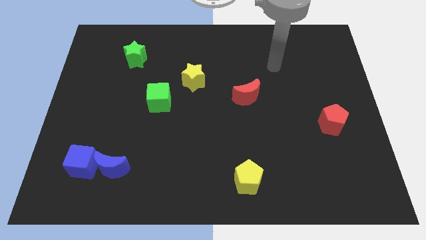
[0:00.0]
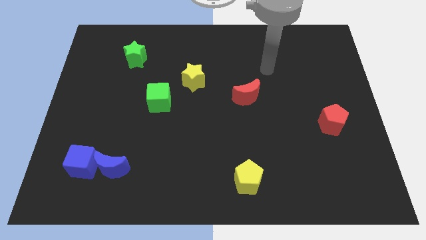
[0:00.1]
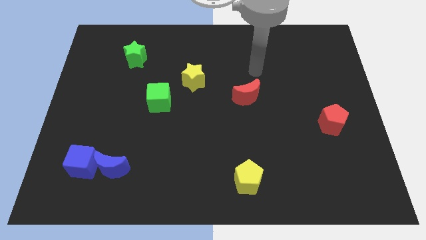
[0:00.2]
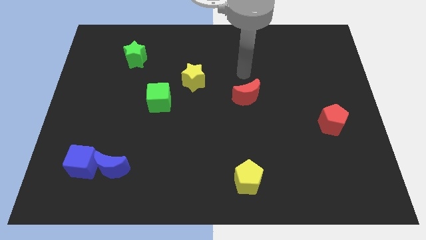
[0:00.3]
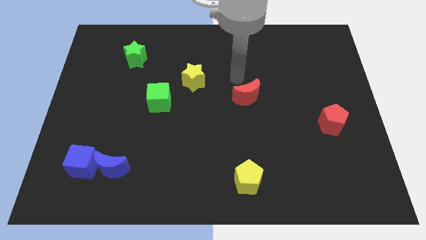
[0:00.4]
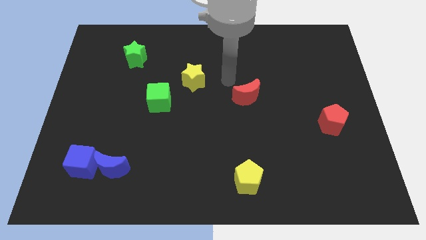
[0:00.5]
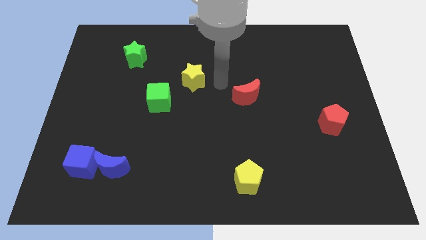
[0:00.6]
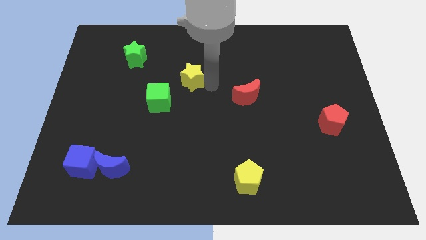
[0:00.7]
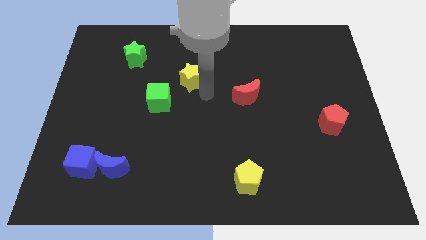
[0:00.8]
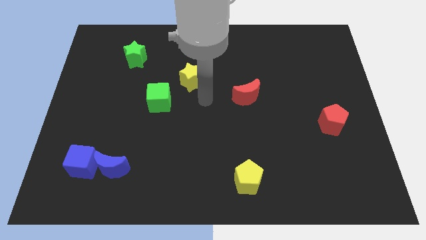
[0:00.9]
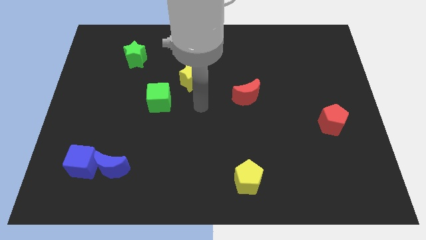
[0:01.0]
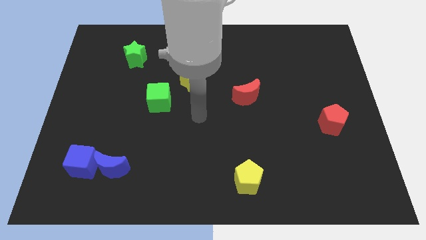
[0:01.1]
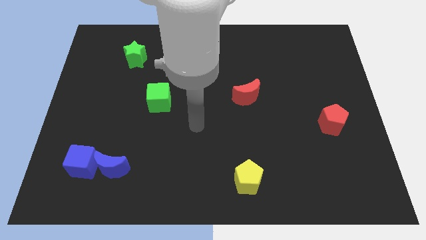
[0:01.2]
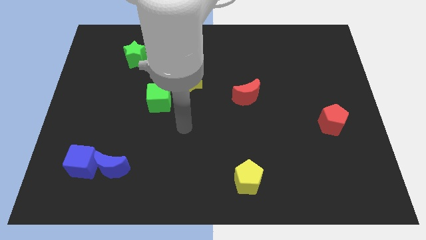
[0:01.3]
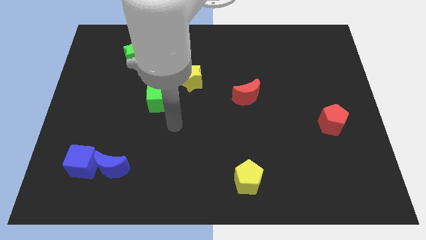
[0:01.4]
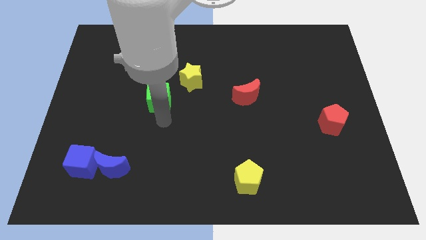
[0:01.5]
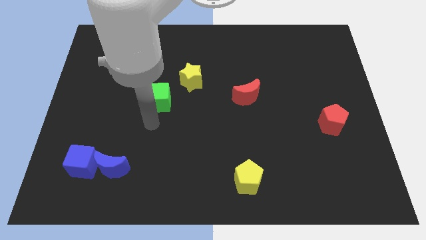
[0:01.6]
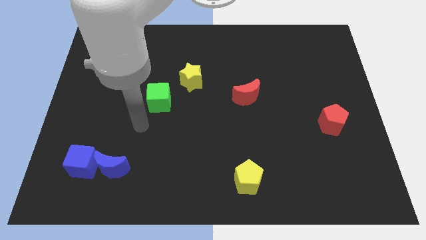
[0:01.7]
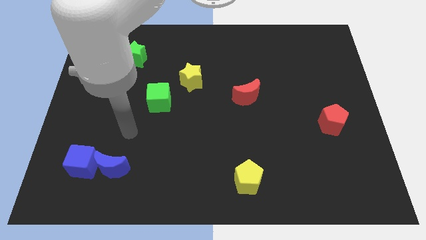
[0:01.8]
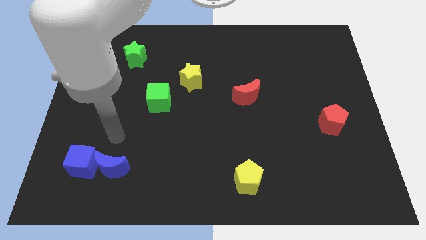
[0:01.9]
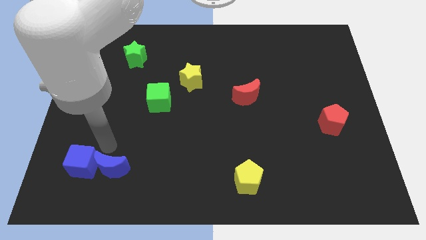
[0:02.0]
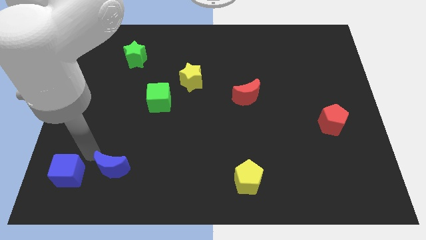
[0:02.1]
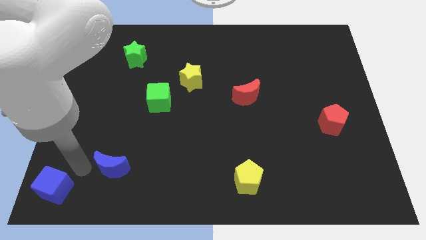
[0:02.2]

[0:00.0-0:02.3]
pull the blue moon apart from the blue cube

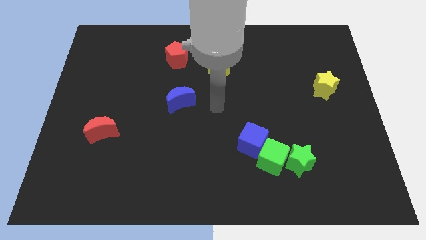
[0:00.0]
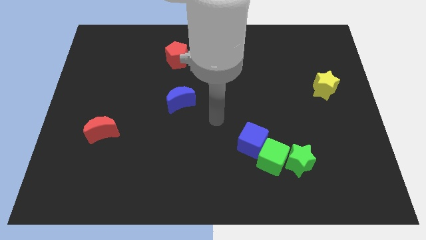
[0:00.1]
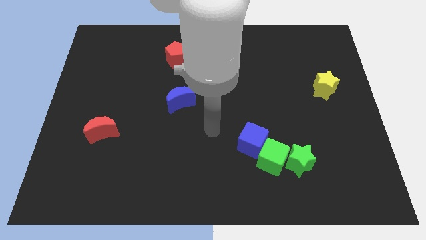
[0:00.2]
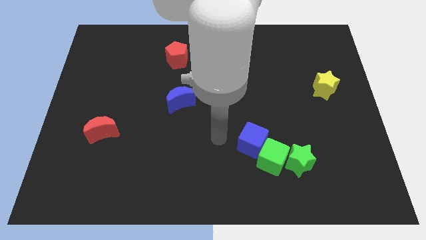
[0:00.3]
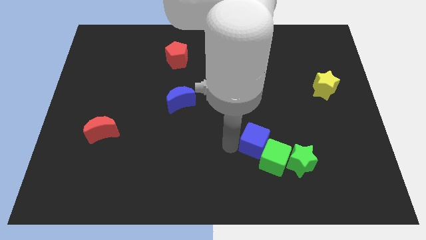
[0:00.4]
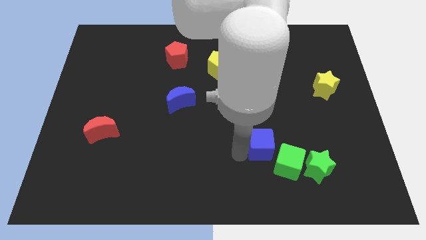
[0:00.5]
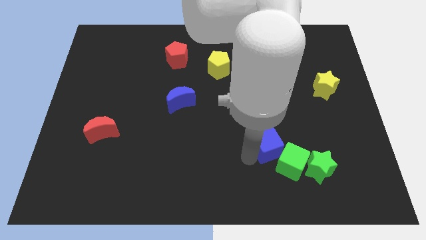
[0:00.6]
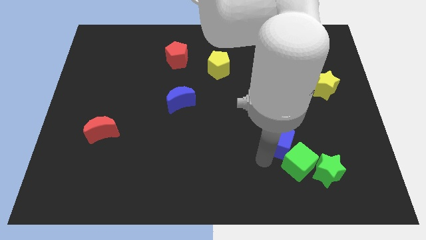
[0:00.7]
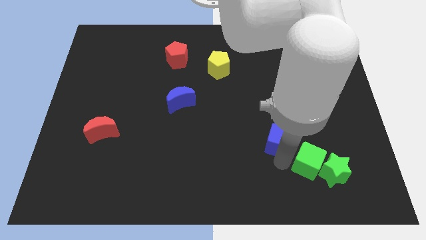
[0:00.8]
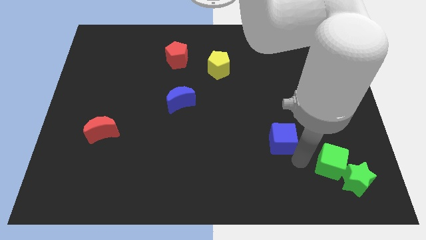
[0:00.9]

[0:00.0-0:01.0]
separate the blue cube from the green cube

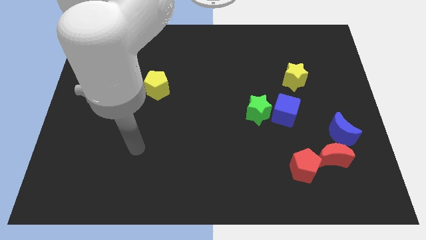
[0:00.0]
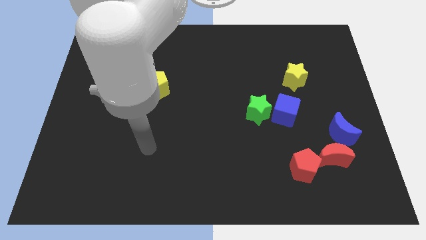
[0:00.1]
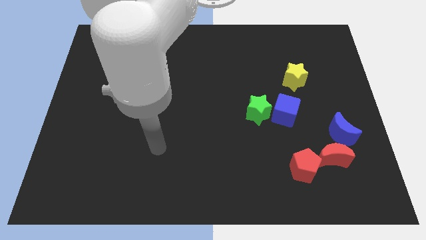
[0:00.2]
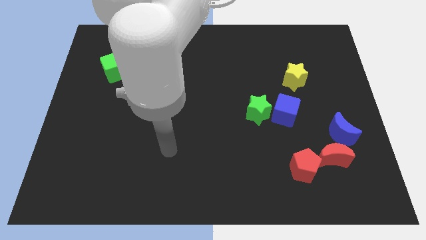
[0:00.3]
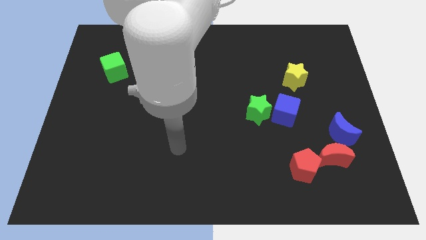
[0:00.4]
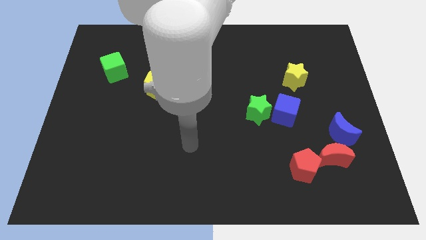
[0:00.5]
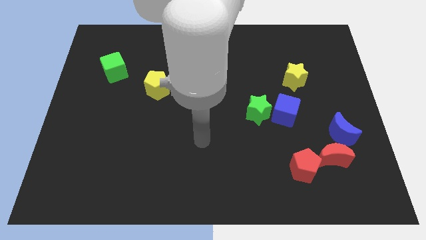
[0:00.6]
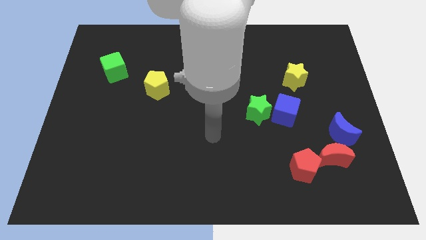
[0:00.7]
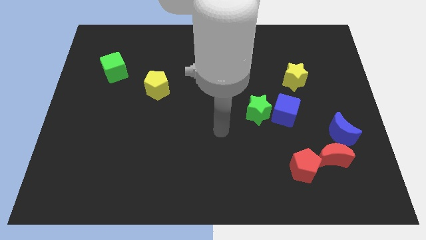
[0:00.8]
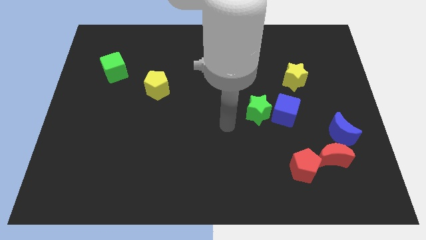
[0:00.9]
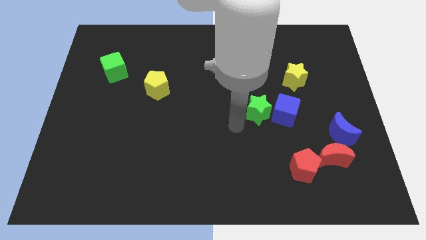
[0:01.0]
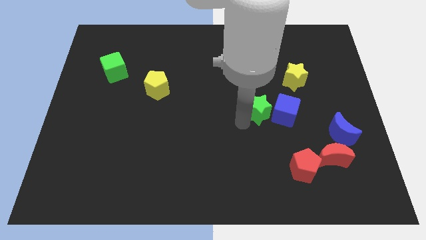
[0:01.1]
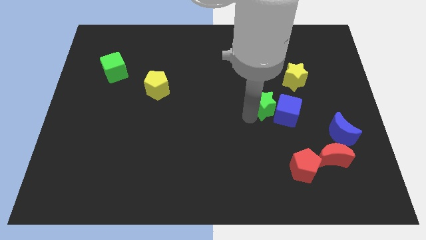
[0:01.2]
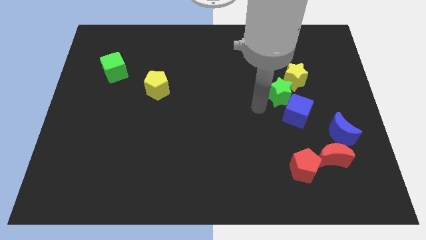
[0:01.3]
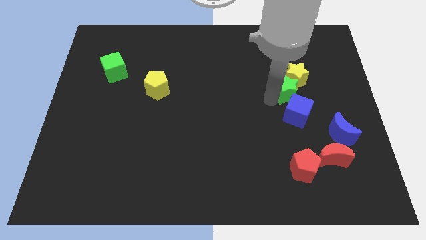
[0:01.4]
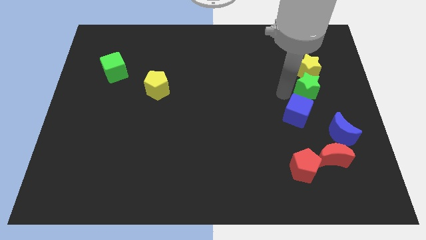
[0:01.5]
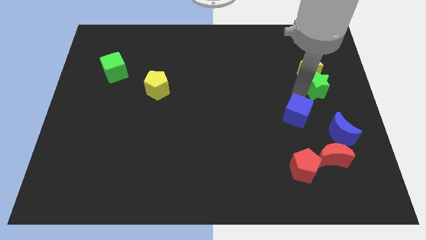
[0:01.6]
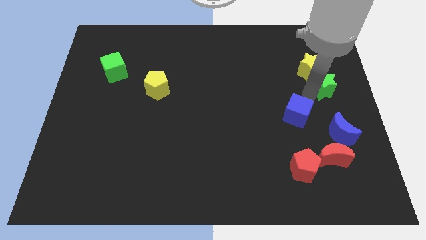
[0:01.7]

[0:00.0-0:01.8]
pull the blue cube apart from the green star

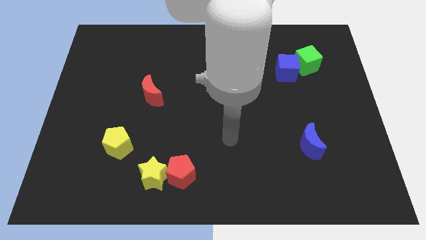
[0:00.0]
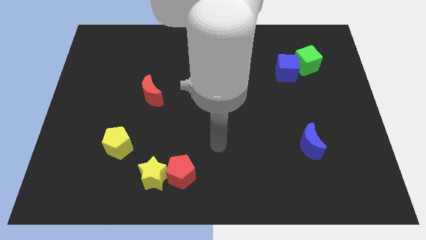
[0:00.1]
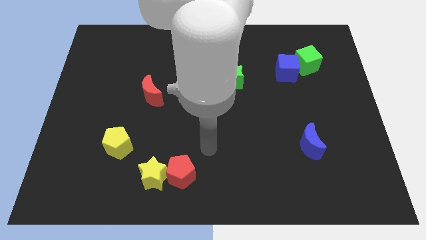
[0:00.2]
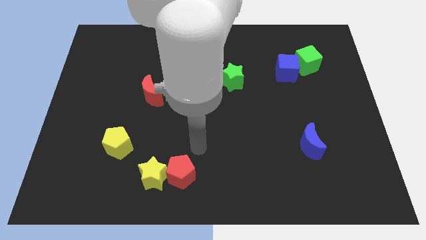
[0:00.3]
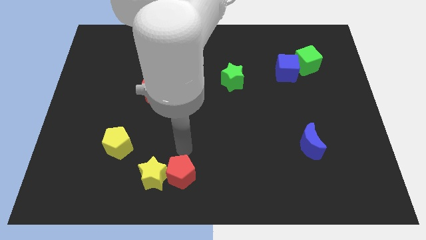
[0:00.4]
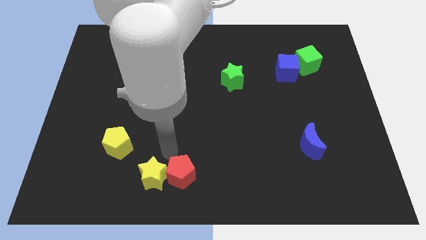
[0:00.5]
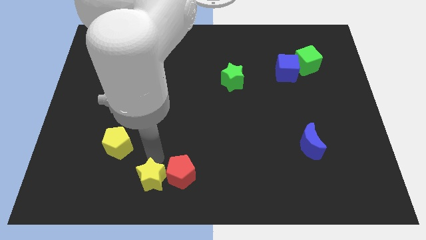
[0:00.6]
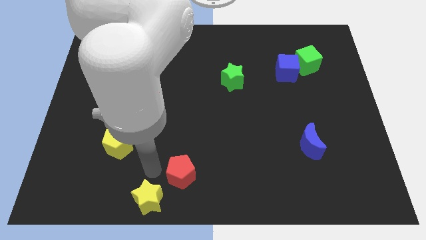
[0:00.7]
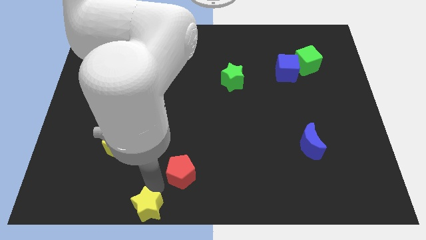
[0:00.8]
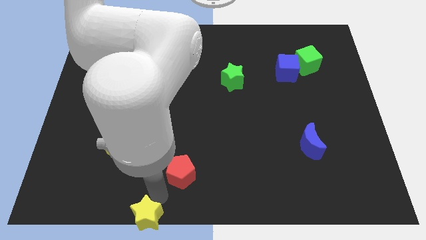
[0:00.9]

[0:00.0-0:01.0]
separate the red pentagon from the yellow star

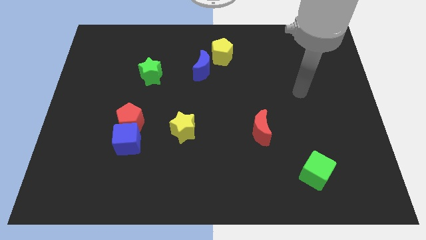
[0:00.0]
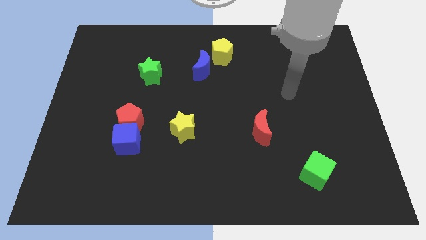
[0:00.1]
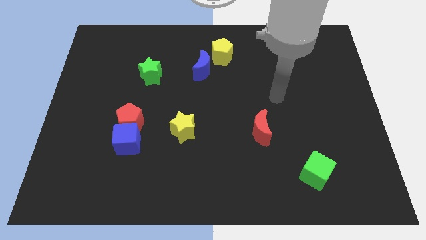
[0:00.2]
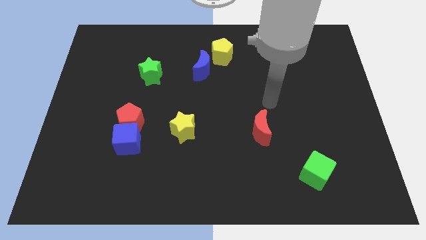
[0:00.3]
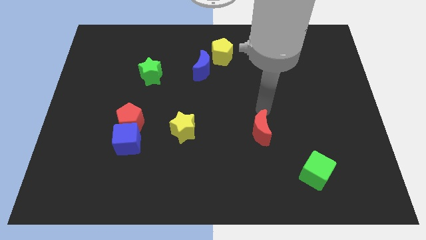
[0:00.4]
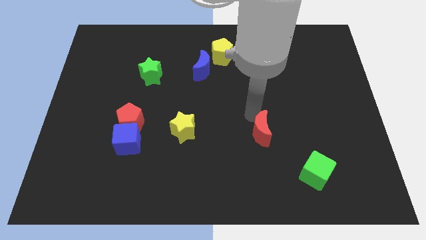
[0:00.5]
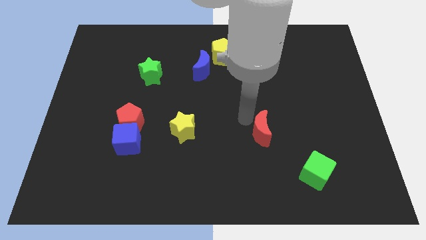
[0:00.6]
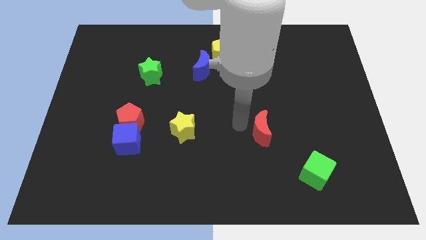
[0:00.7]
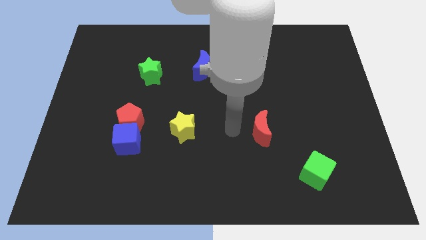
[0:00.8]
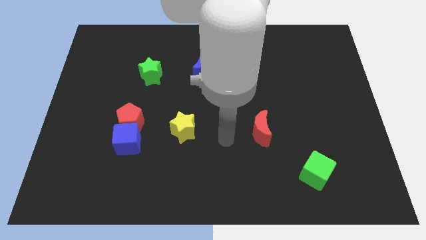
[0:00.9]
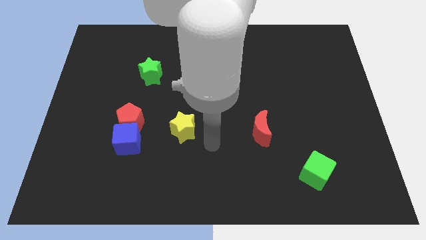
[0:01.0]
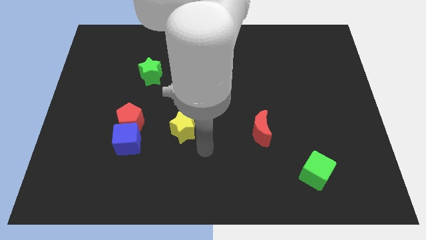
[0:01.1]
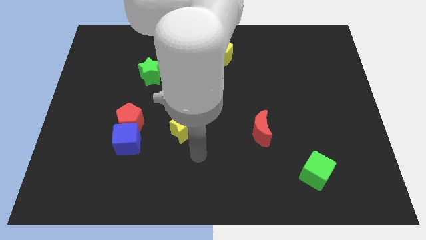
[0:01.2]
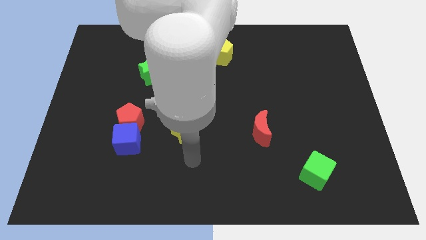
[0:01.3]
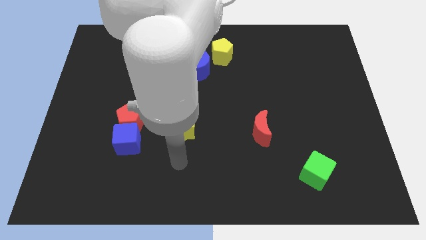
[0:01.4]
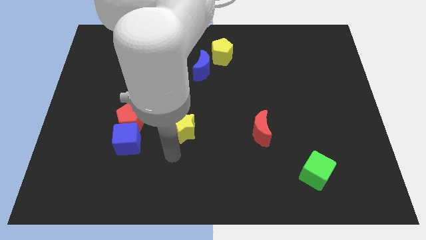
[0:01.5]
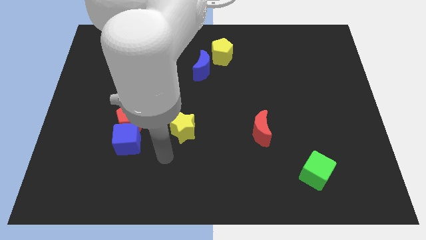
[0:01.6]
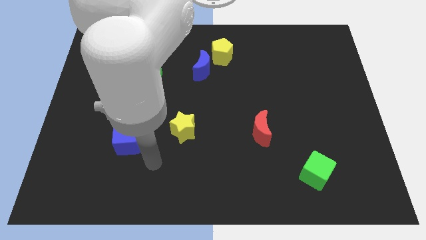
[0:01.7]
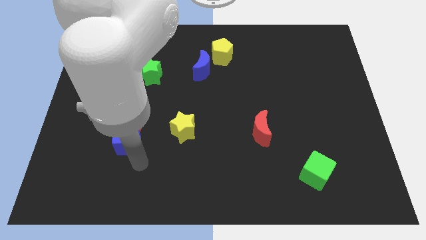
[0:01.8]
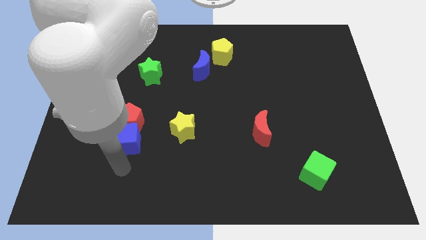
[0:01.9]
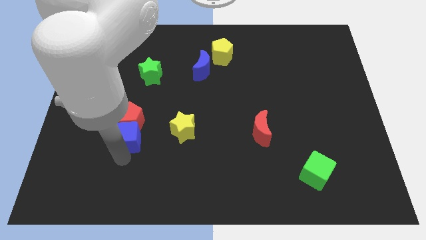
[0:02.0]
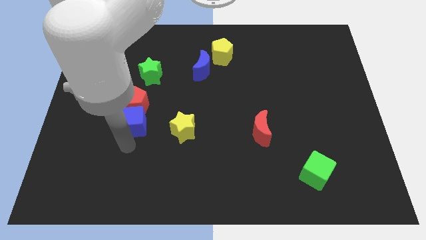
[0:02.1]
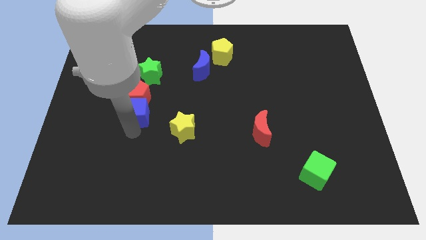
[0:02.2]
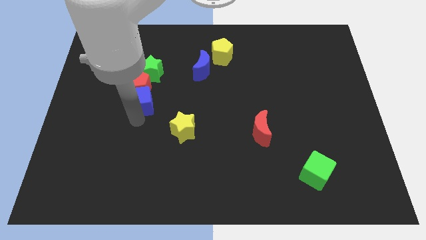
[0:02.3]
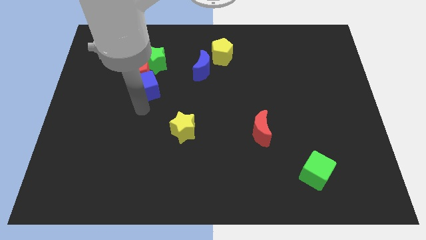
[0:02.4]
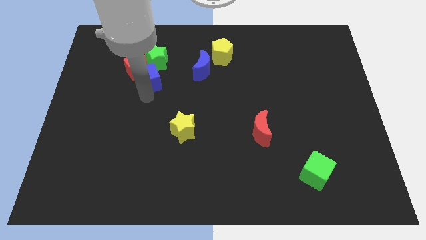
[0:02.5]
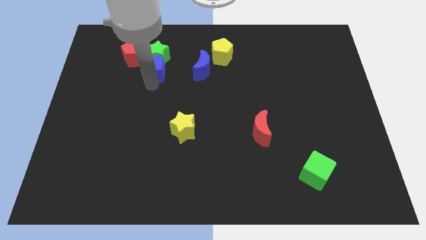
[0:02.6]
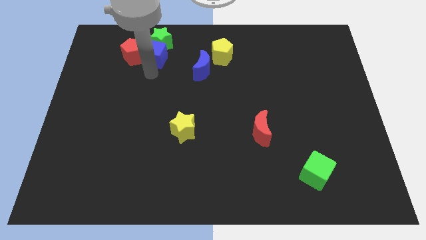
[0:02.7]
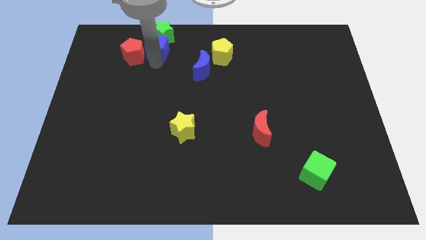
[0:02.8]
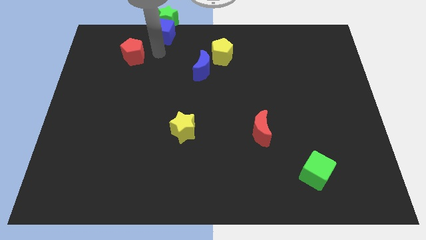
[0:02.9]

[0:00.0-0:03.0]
pull the red pentagon apart from the blue cube
